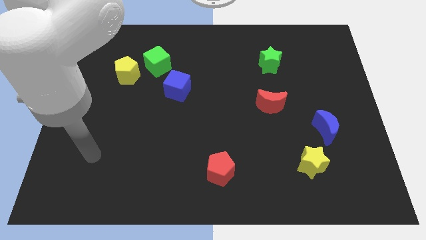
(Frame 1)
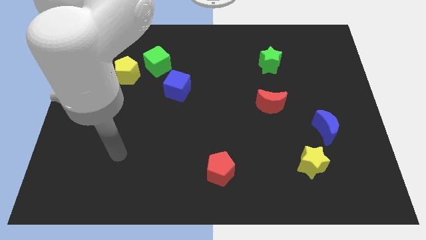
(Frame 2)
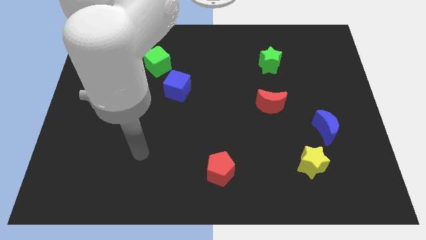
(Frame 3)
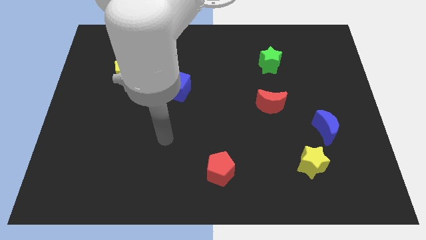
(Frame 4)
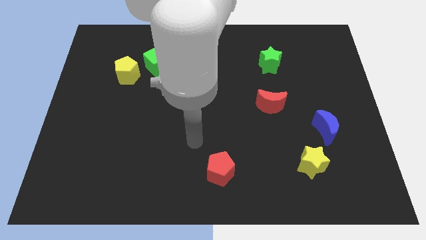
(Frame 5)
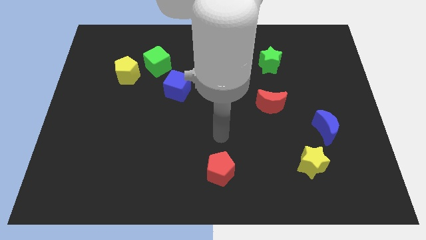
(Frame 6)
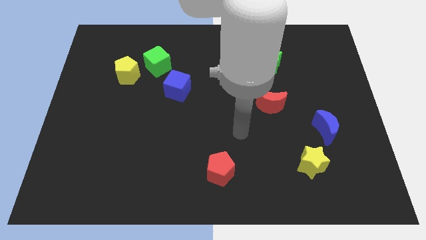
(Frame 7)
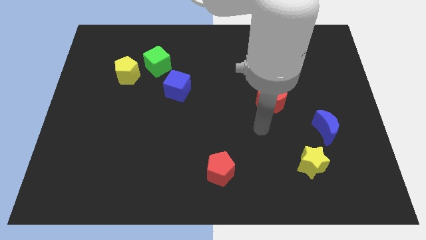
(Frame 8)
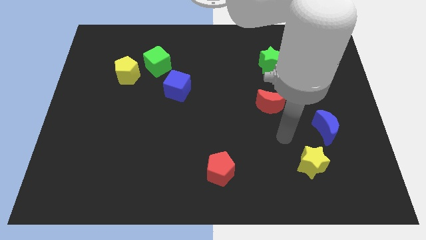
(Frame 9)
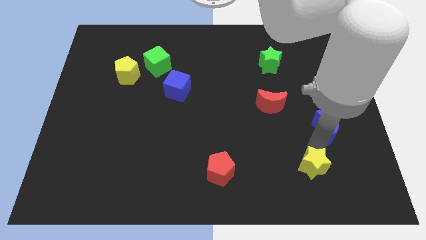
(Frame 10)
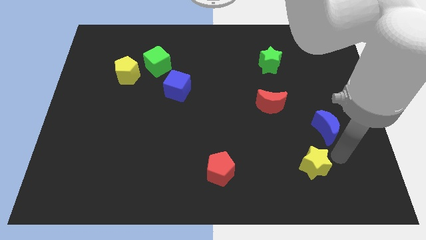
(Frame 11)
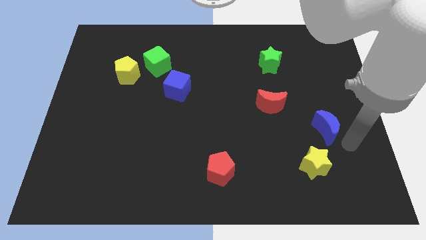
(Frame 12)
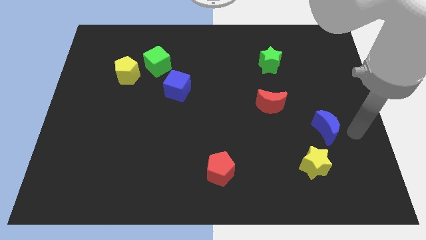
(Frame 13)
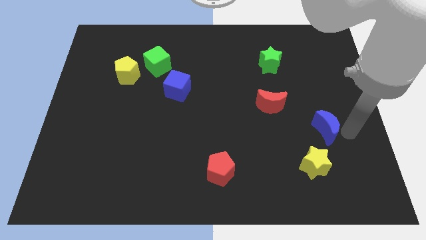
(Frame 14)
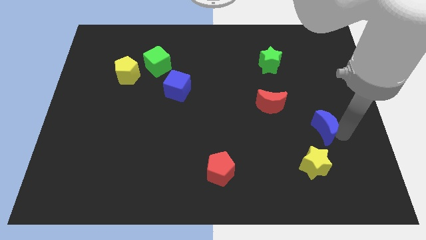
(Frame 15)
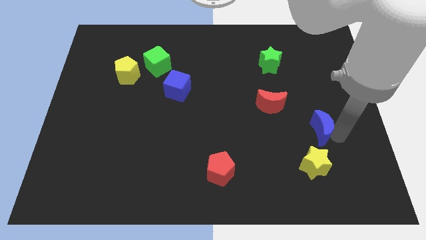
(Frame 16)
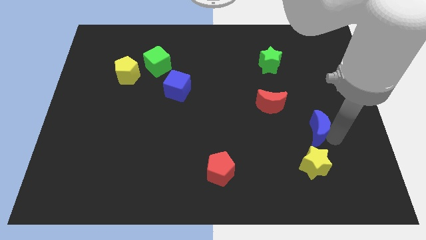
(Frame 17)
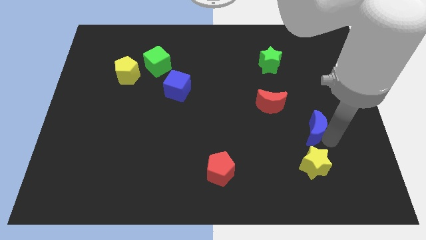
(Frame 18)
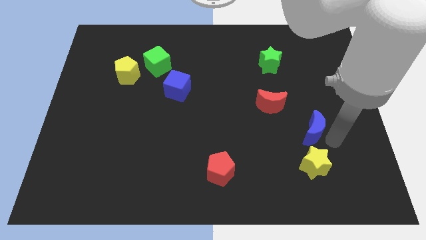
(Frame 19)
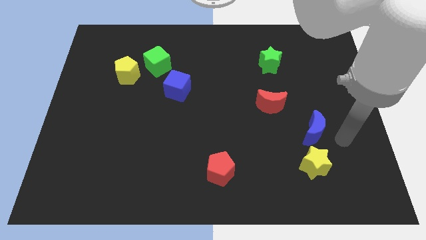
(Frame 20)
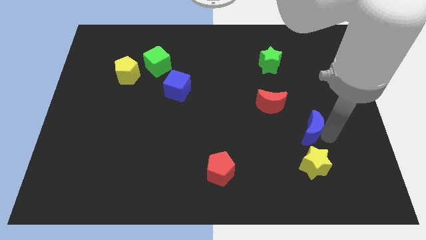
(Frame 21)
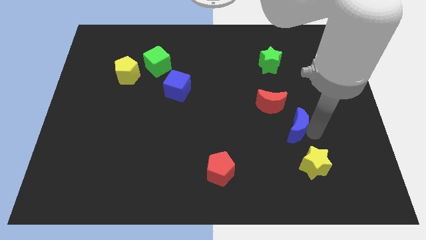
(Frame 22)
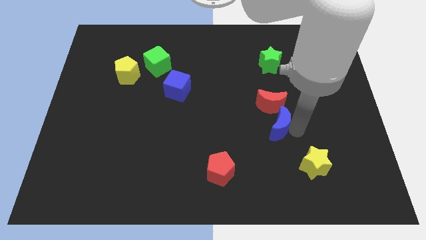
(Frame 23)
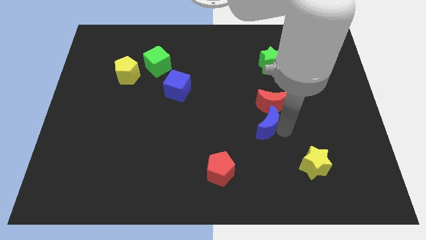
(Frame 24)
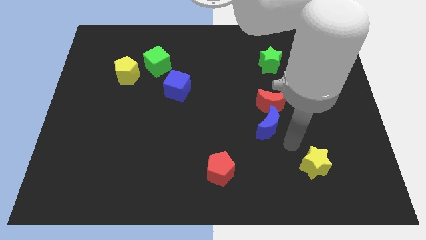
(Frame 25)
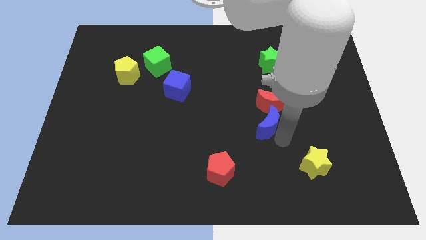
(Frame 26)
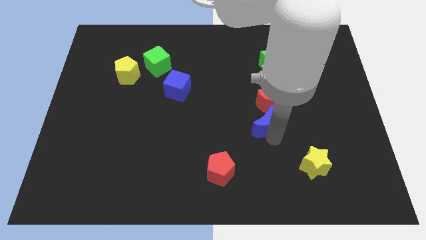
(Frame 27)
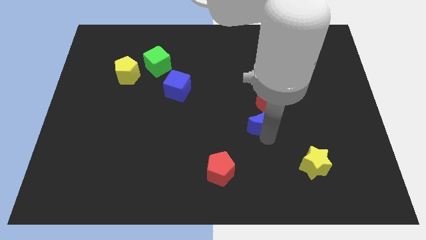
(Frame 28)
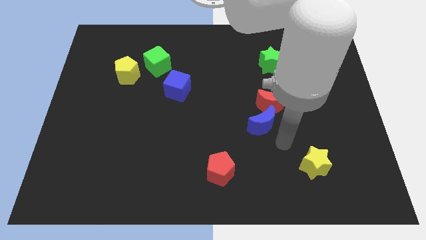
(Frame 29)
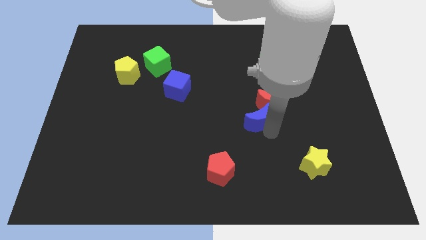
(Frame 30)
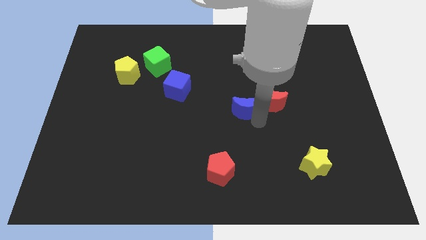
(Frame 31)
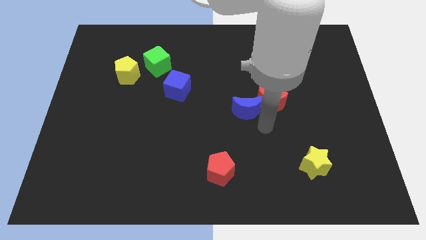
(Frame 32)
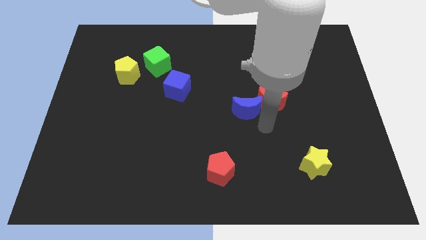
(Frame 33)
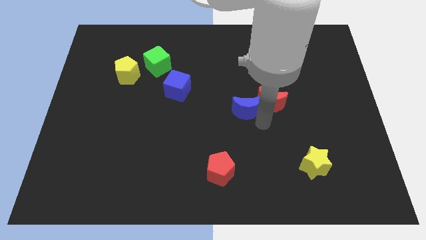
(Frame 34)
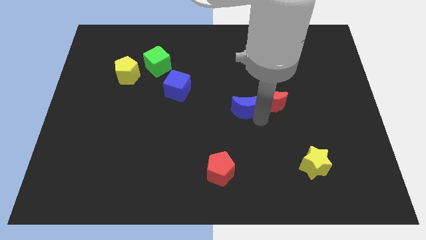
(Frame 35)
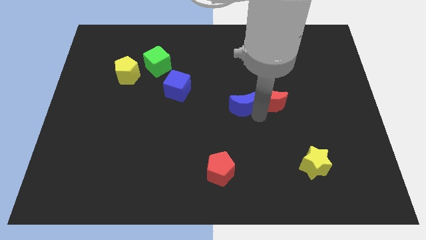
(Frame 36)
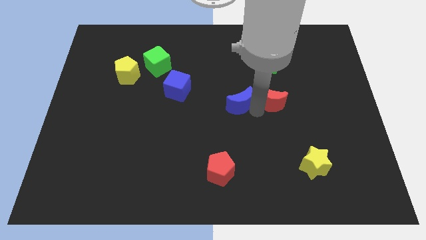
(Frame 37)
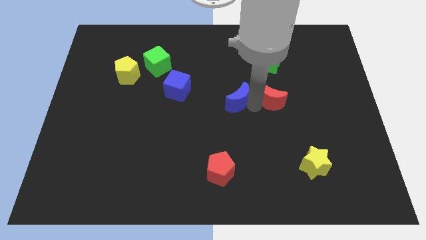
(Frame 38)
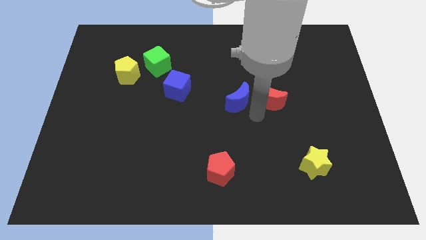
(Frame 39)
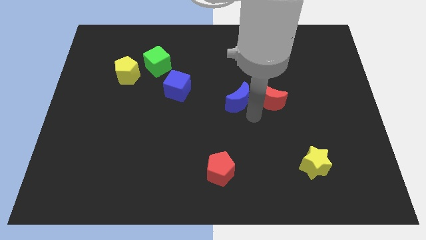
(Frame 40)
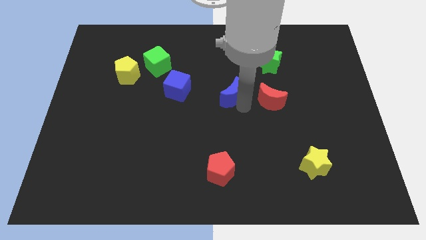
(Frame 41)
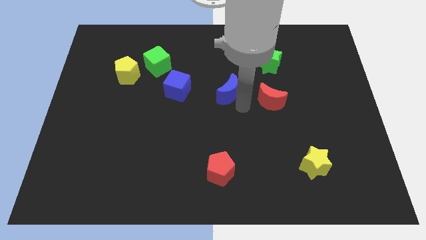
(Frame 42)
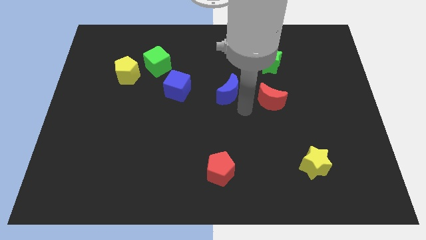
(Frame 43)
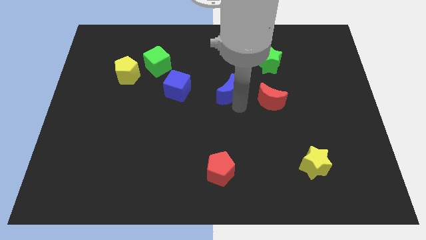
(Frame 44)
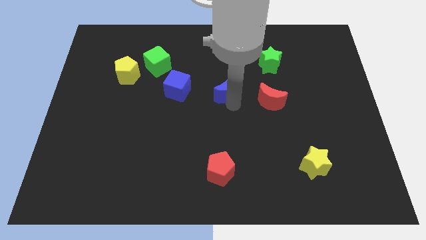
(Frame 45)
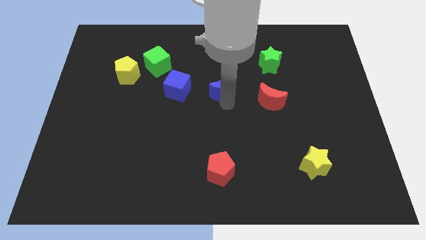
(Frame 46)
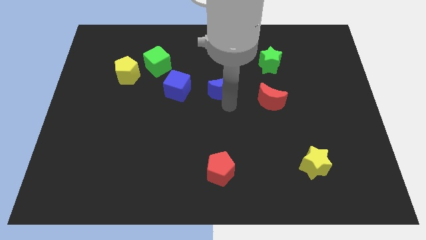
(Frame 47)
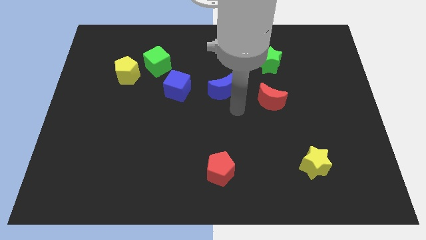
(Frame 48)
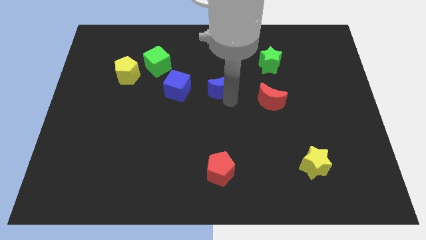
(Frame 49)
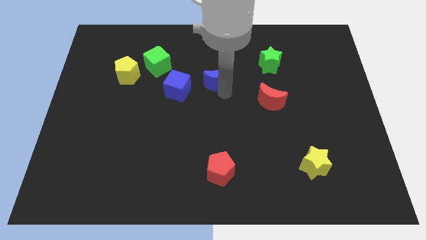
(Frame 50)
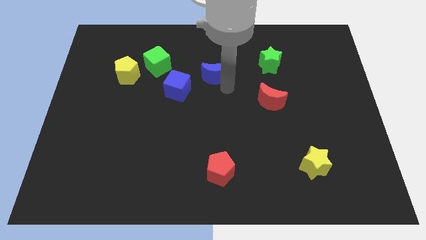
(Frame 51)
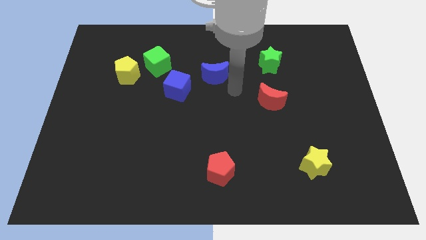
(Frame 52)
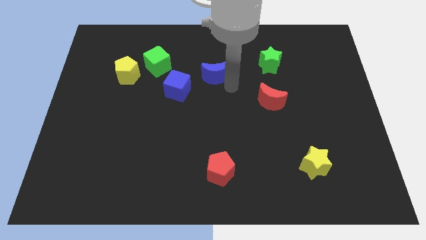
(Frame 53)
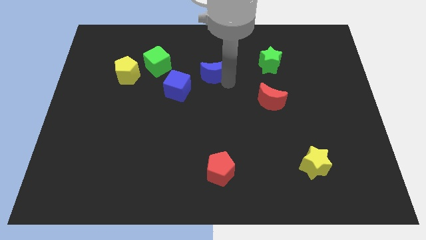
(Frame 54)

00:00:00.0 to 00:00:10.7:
push the blue moon right of the green cube

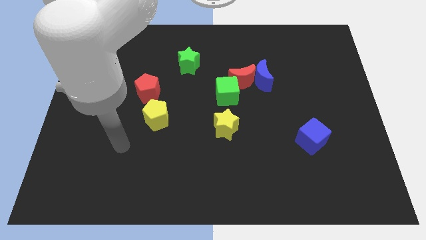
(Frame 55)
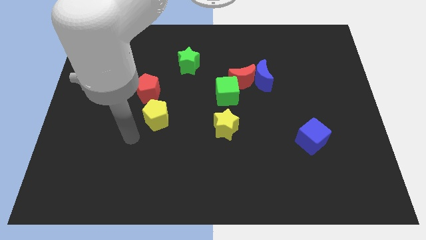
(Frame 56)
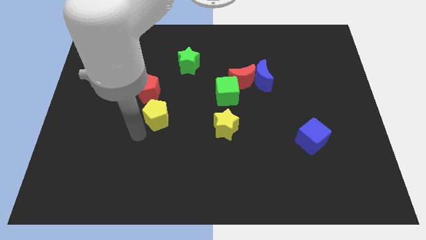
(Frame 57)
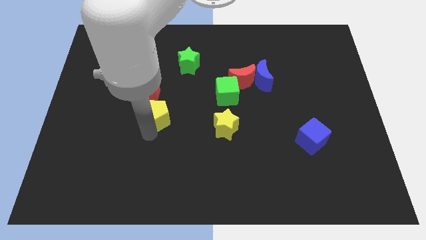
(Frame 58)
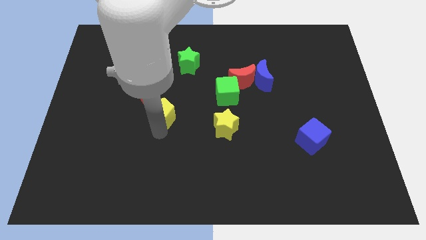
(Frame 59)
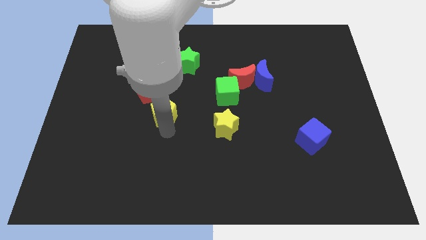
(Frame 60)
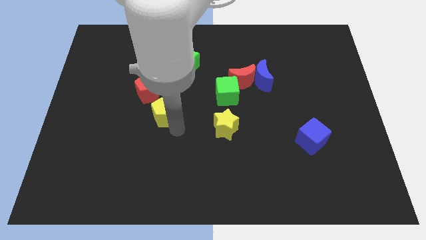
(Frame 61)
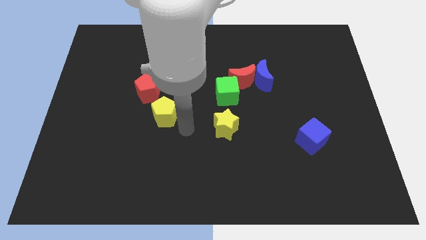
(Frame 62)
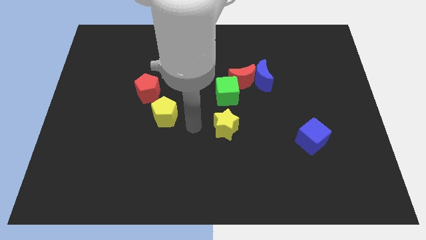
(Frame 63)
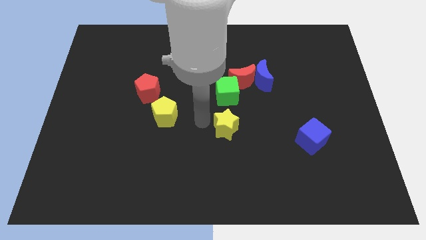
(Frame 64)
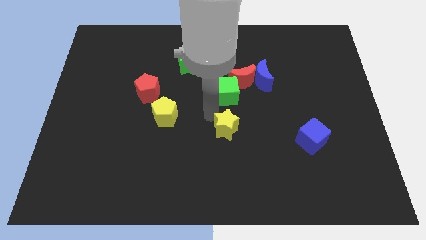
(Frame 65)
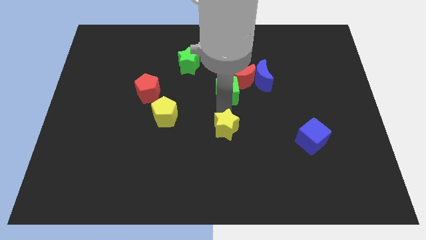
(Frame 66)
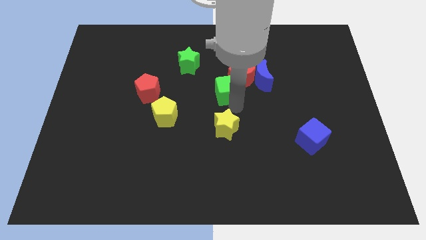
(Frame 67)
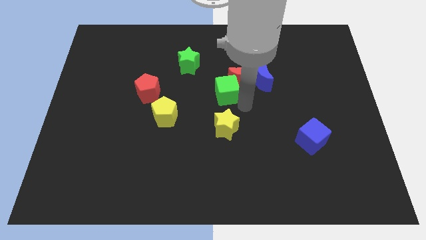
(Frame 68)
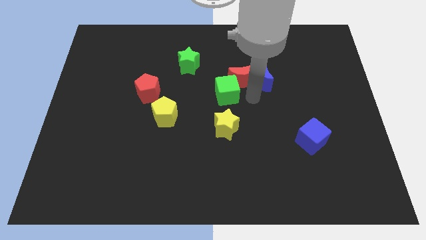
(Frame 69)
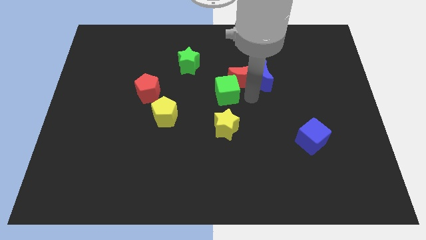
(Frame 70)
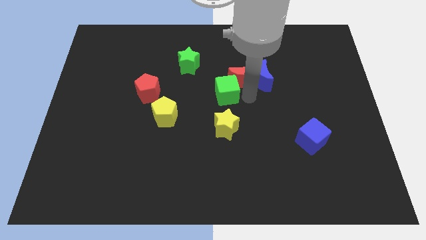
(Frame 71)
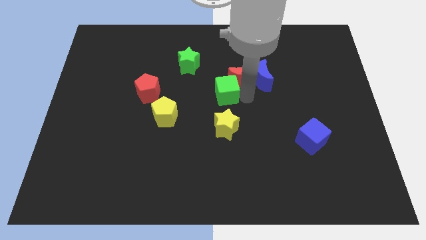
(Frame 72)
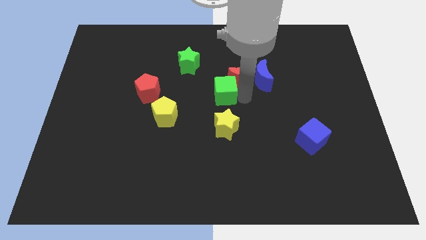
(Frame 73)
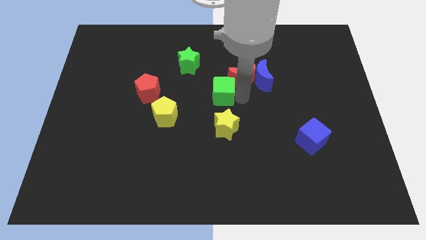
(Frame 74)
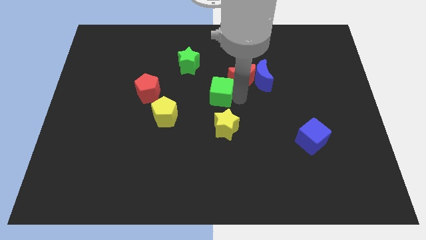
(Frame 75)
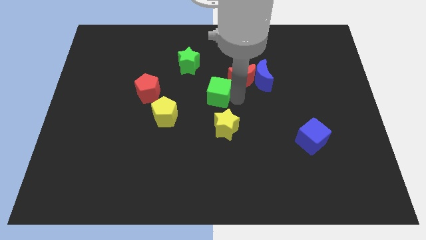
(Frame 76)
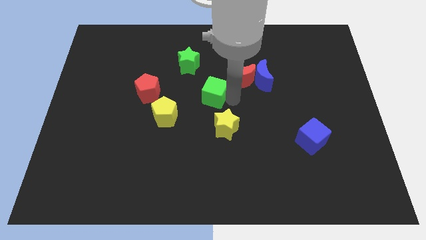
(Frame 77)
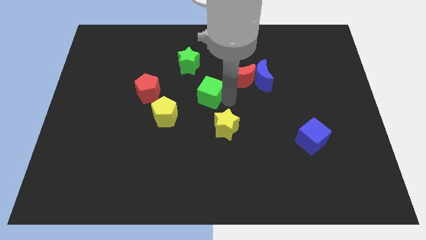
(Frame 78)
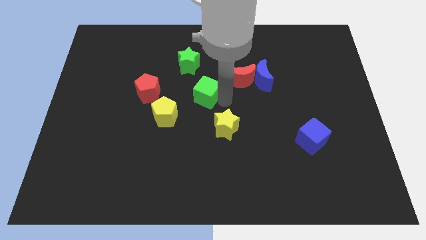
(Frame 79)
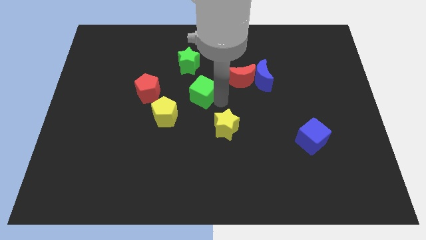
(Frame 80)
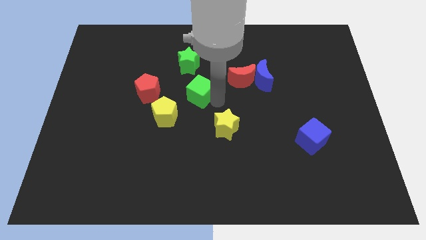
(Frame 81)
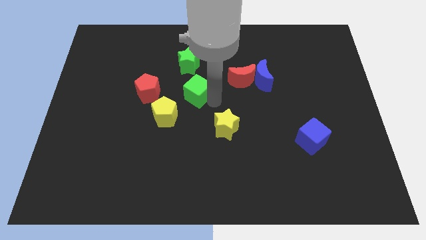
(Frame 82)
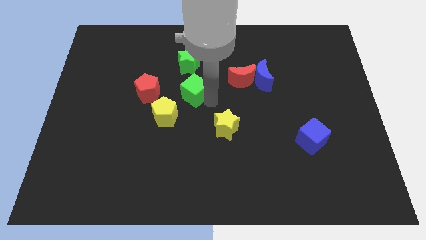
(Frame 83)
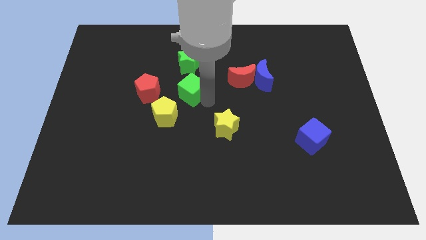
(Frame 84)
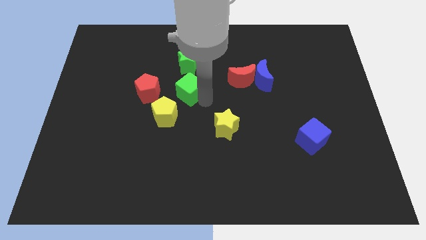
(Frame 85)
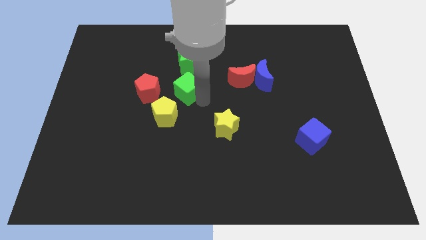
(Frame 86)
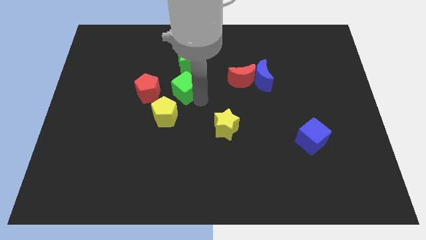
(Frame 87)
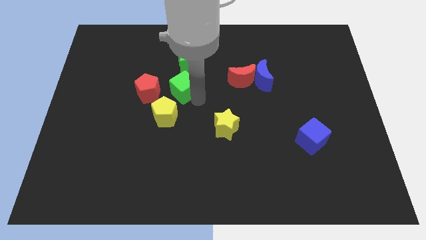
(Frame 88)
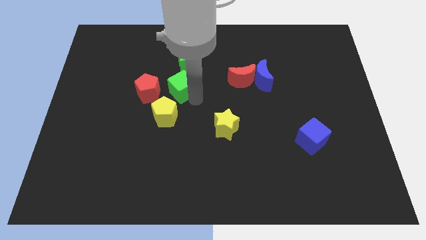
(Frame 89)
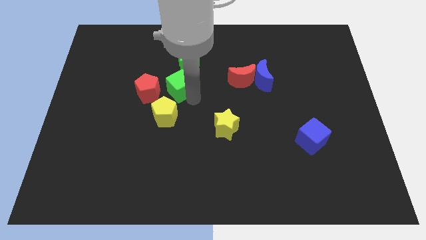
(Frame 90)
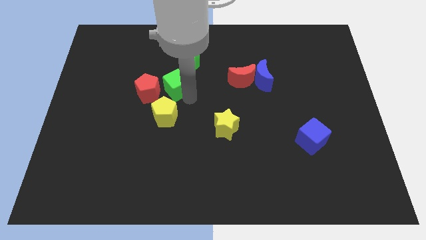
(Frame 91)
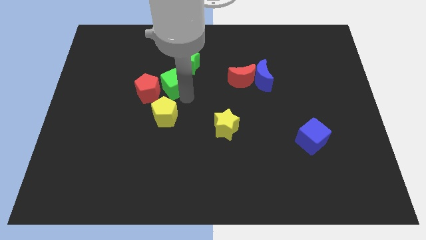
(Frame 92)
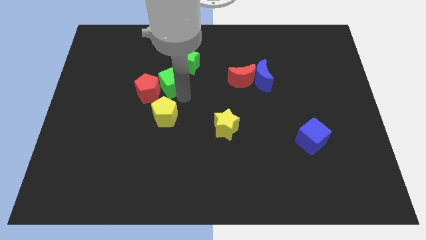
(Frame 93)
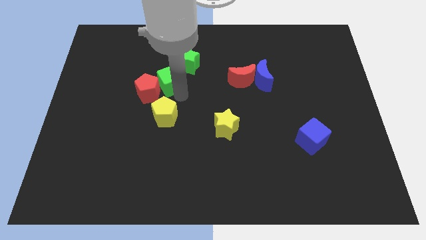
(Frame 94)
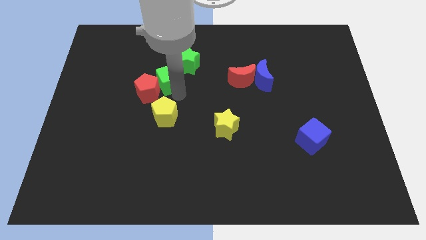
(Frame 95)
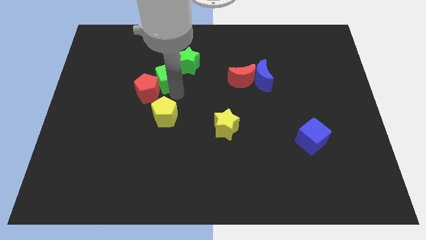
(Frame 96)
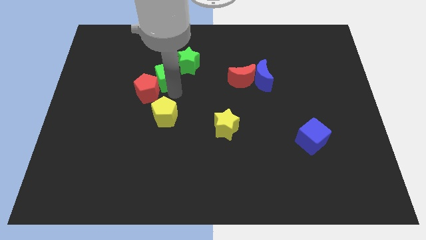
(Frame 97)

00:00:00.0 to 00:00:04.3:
push the green cube to the top side of the red pentagon
